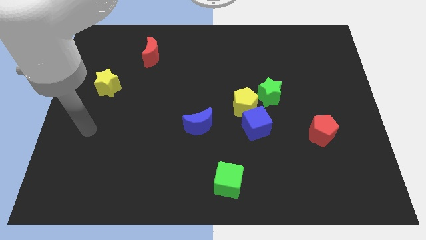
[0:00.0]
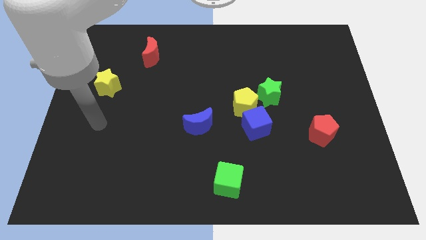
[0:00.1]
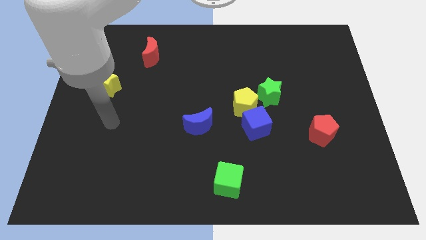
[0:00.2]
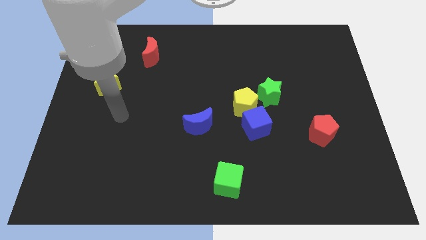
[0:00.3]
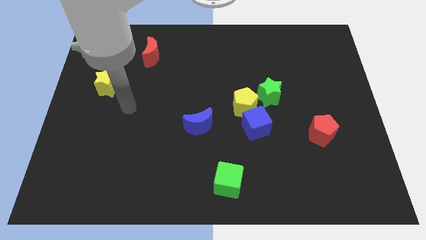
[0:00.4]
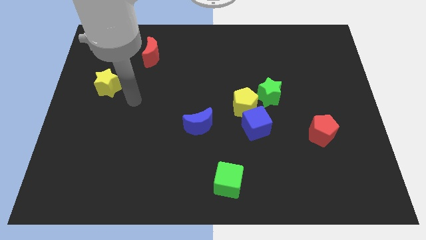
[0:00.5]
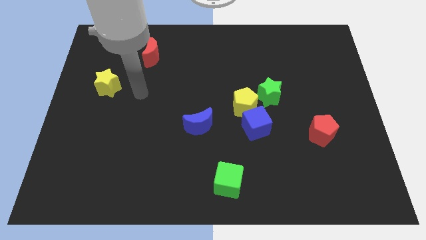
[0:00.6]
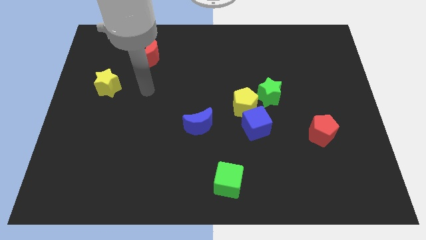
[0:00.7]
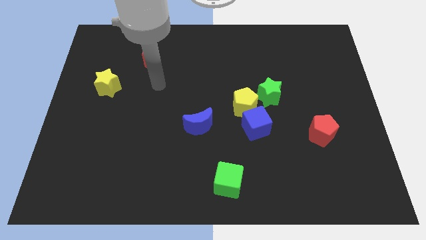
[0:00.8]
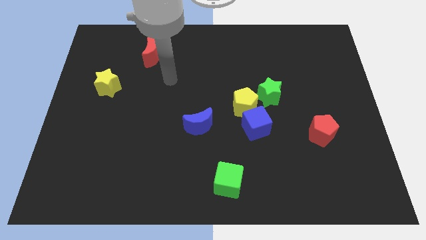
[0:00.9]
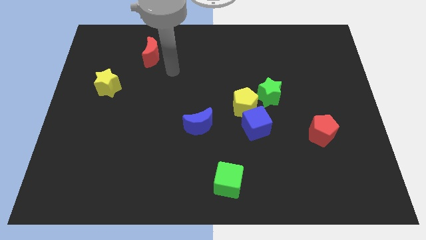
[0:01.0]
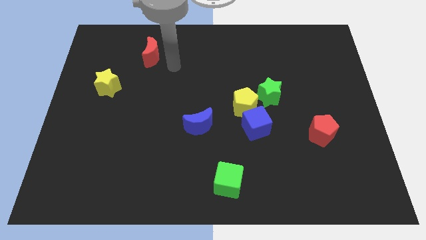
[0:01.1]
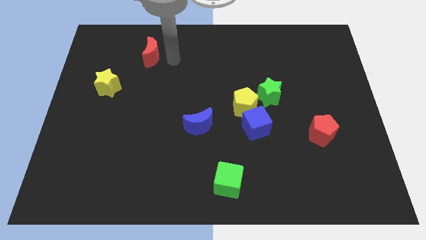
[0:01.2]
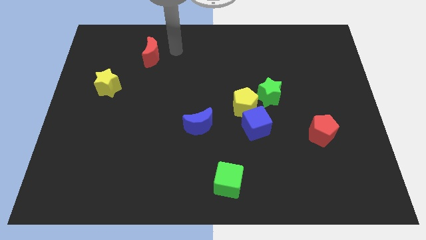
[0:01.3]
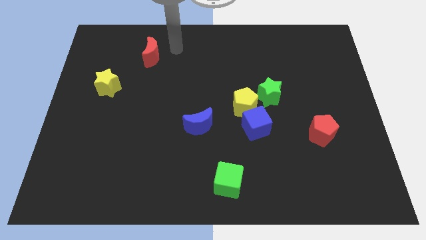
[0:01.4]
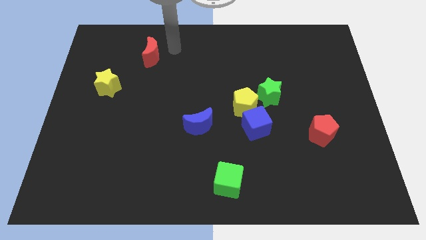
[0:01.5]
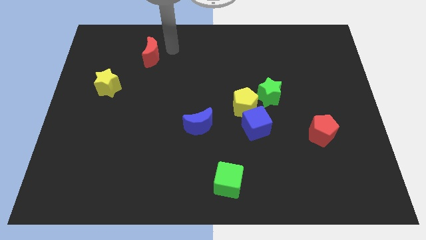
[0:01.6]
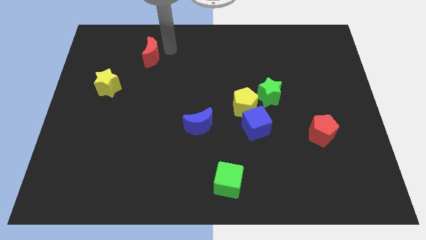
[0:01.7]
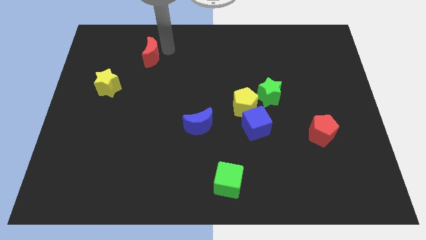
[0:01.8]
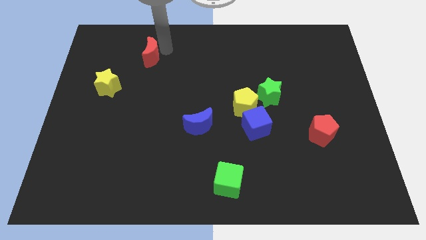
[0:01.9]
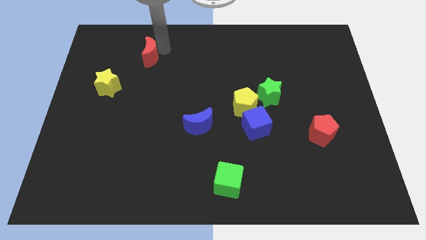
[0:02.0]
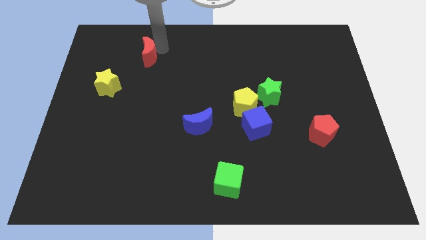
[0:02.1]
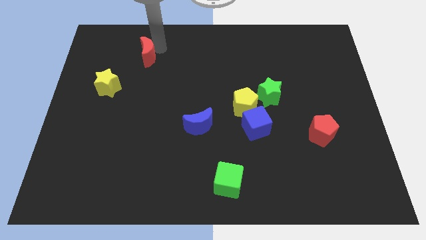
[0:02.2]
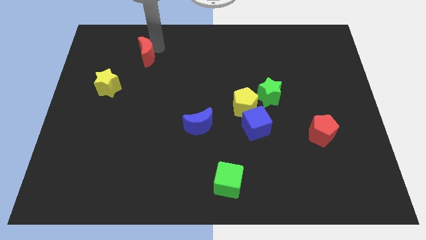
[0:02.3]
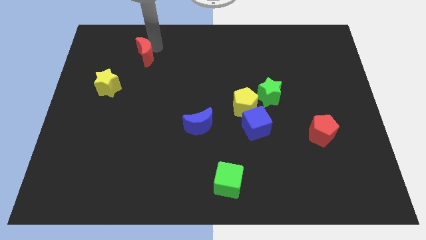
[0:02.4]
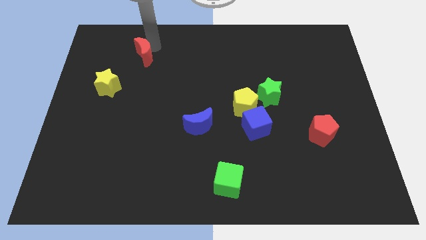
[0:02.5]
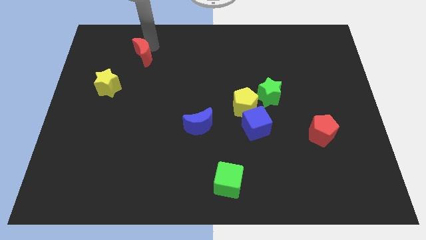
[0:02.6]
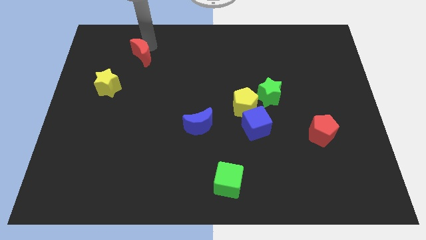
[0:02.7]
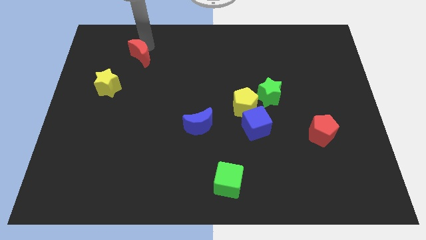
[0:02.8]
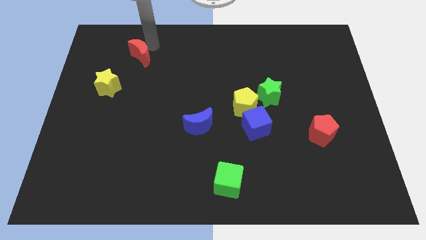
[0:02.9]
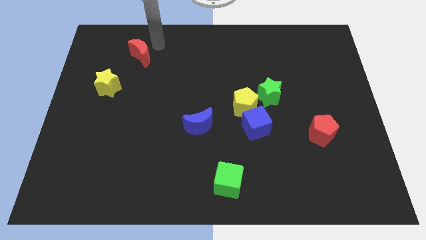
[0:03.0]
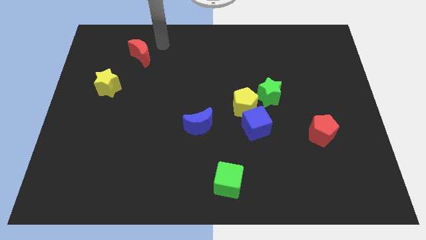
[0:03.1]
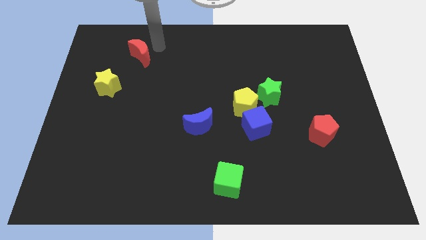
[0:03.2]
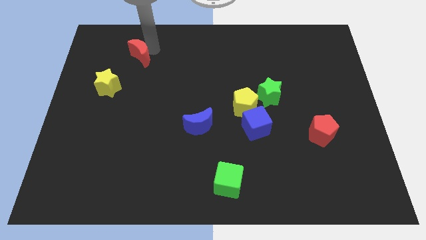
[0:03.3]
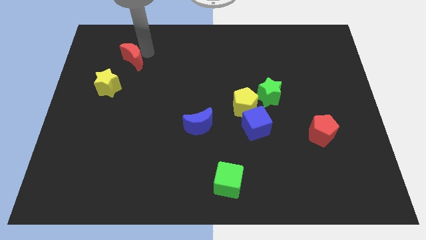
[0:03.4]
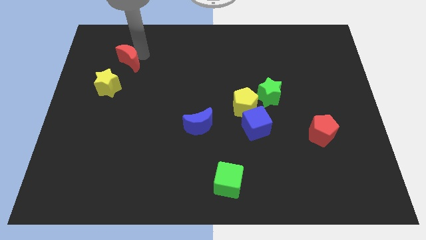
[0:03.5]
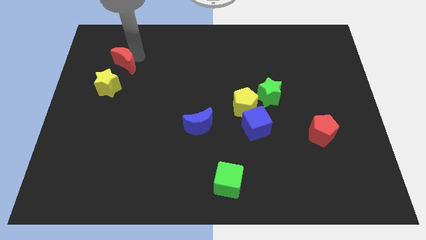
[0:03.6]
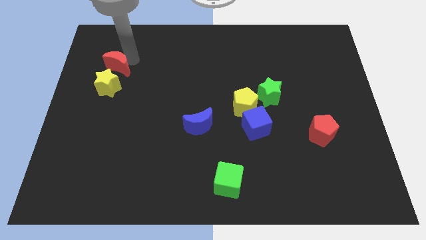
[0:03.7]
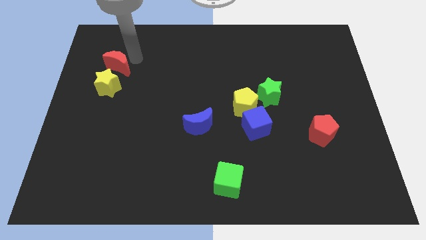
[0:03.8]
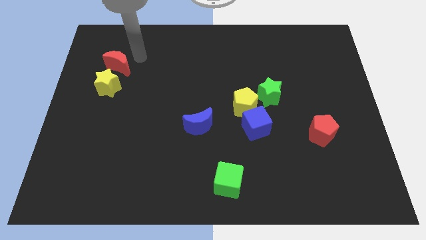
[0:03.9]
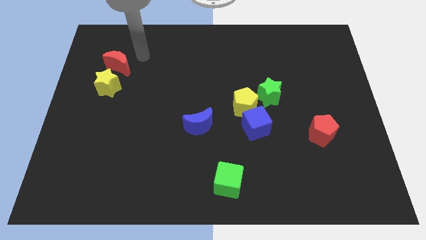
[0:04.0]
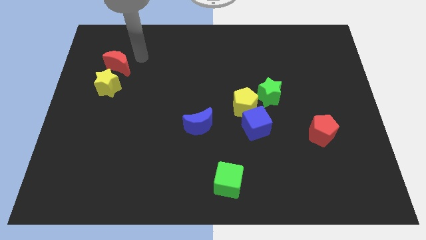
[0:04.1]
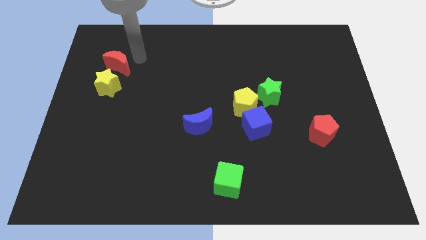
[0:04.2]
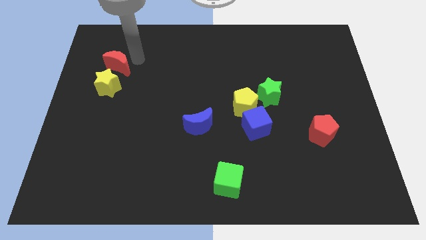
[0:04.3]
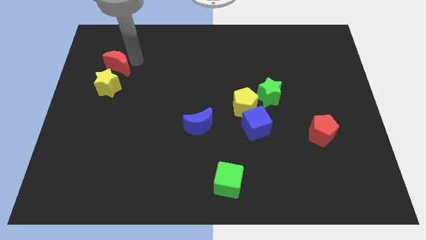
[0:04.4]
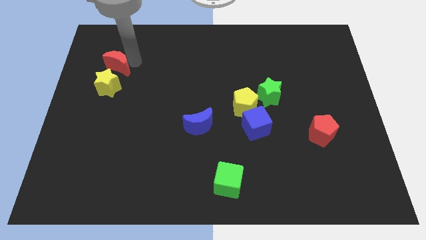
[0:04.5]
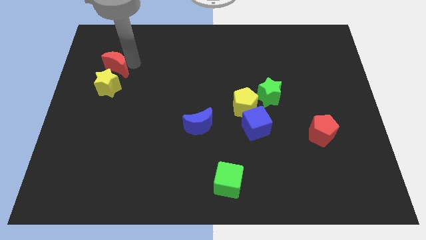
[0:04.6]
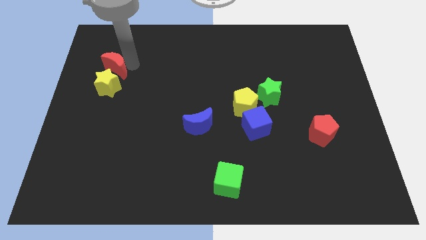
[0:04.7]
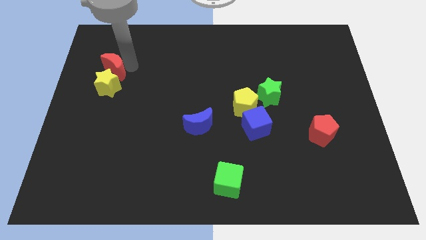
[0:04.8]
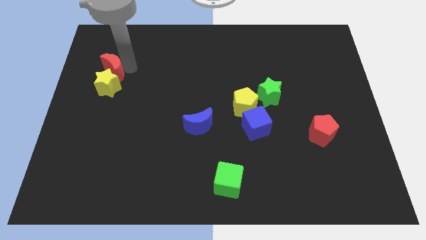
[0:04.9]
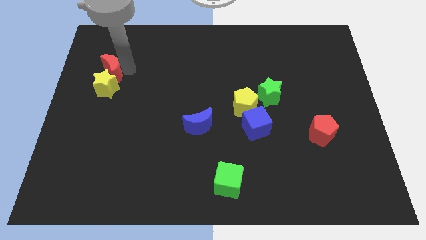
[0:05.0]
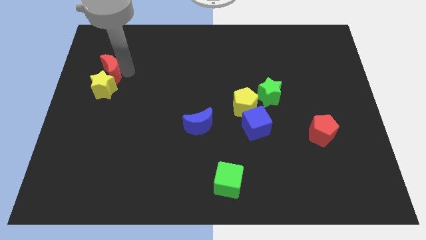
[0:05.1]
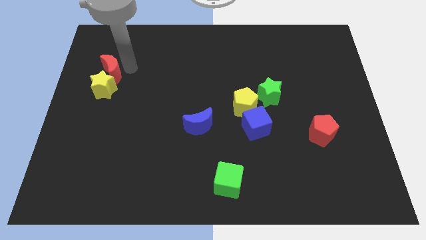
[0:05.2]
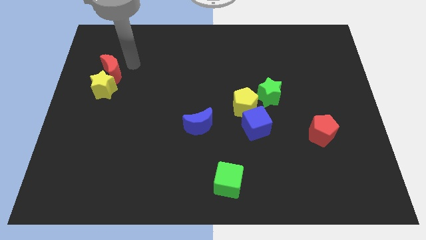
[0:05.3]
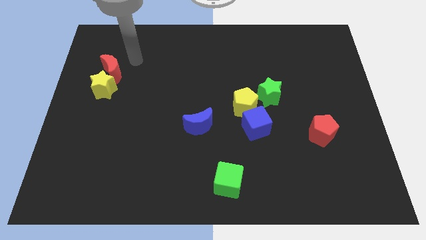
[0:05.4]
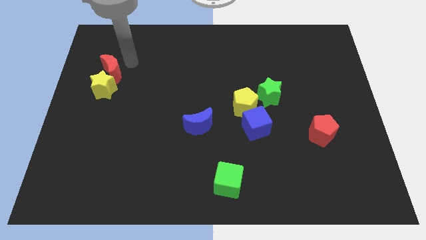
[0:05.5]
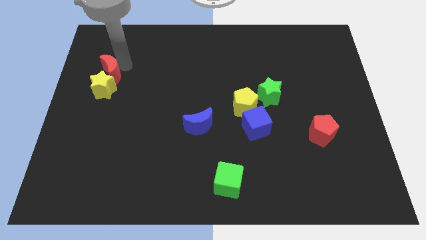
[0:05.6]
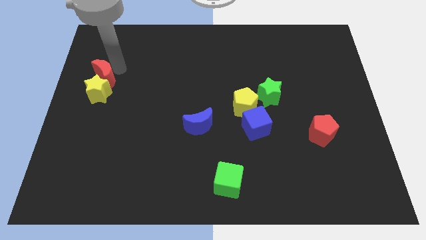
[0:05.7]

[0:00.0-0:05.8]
push the red moon to the left side
